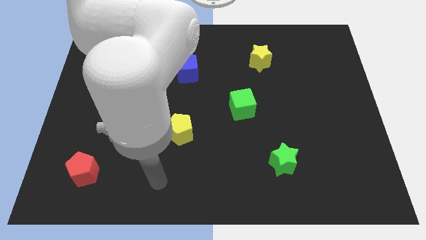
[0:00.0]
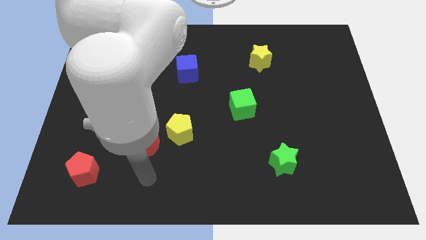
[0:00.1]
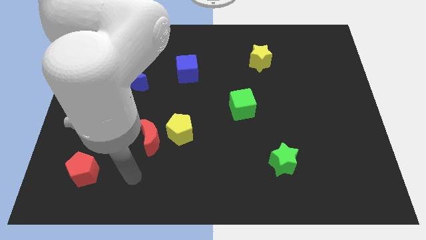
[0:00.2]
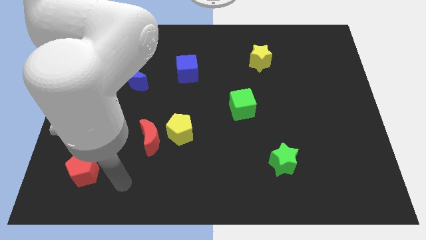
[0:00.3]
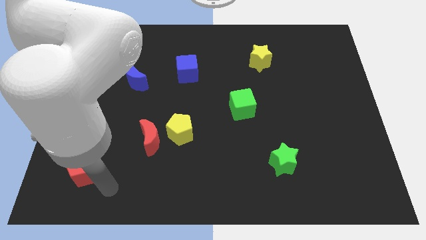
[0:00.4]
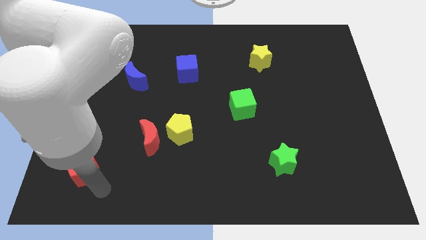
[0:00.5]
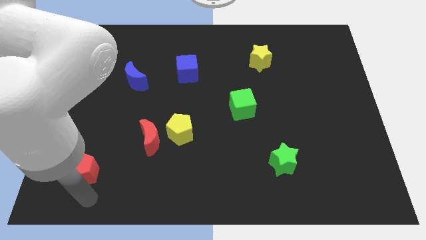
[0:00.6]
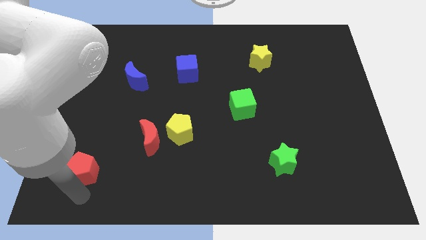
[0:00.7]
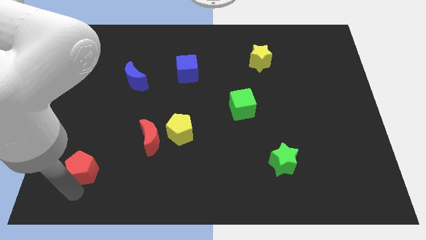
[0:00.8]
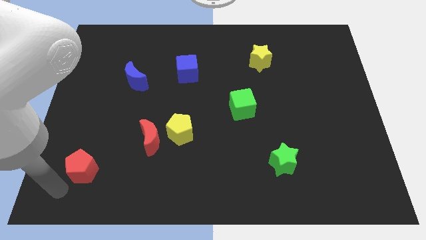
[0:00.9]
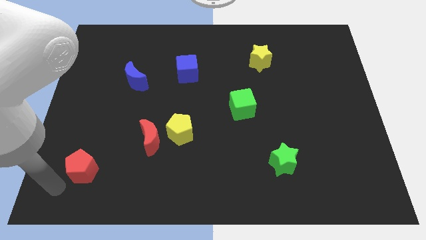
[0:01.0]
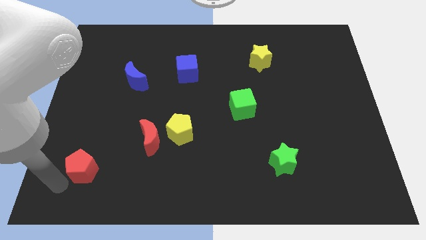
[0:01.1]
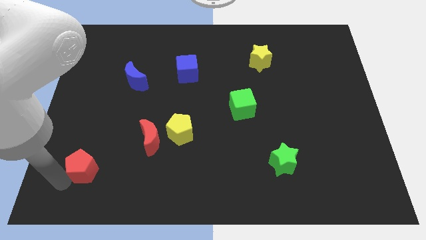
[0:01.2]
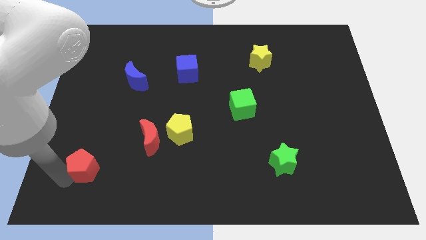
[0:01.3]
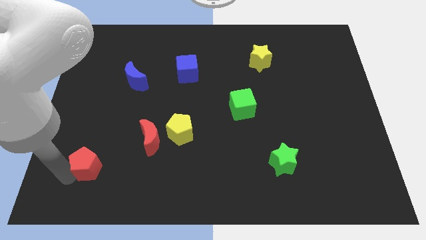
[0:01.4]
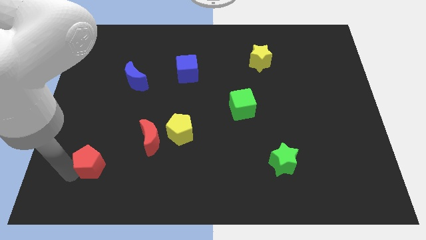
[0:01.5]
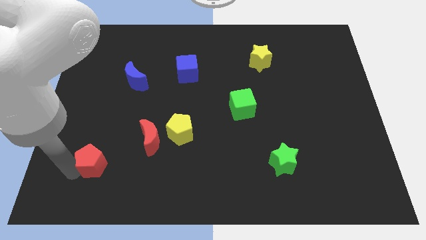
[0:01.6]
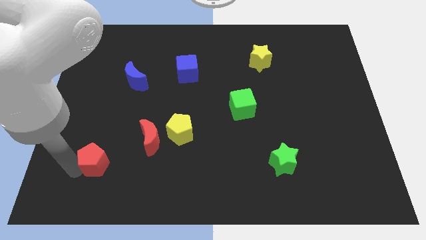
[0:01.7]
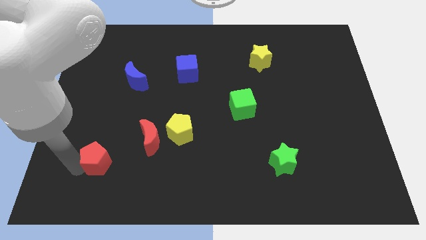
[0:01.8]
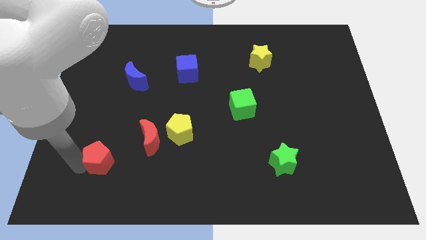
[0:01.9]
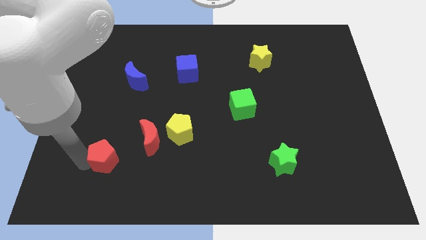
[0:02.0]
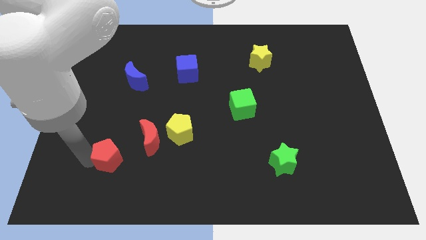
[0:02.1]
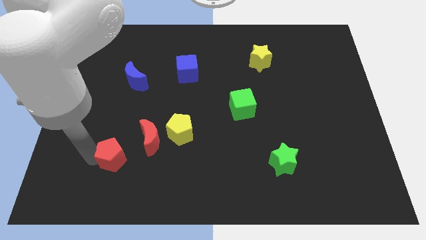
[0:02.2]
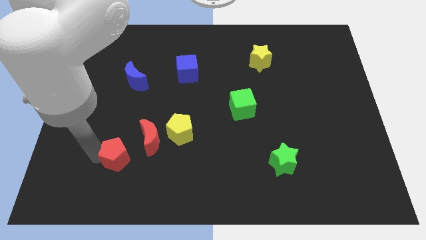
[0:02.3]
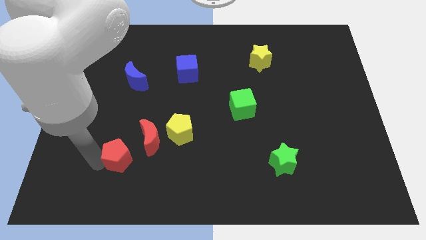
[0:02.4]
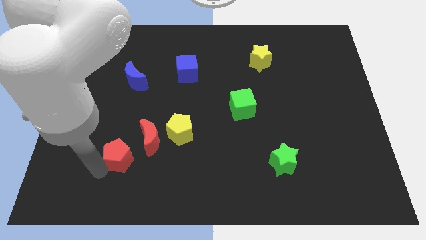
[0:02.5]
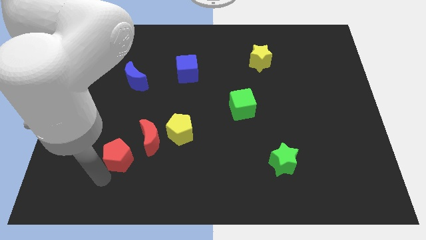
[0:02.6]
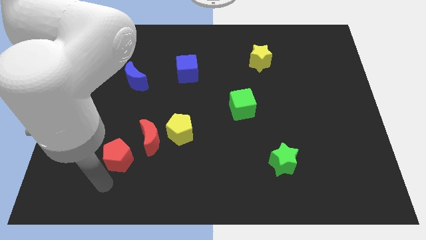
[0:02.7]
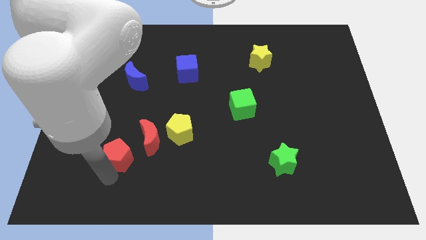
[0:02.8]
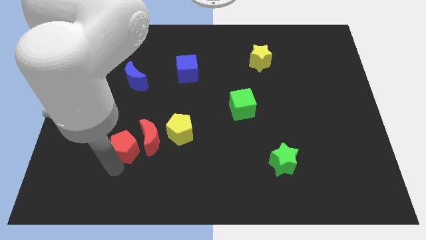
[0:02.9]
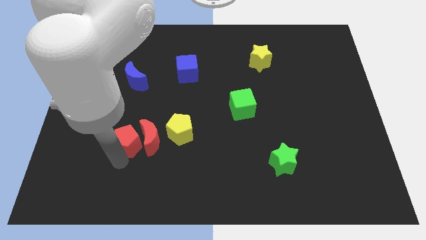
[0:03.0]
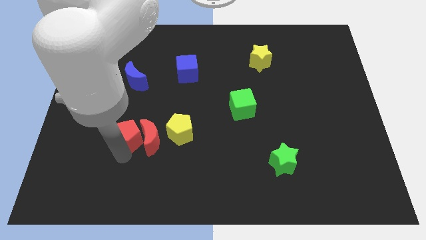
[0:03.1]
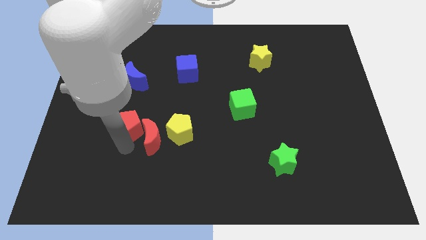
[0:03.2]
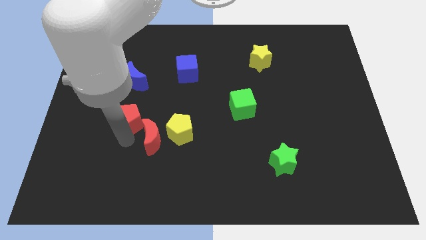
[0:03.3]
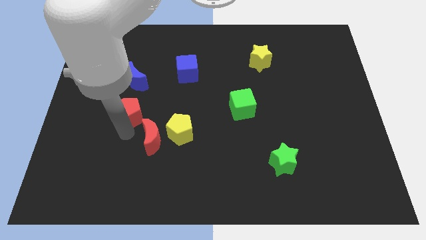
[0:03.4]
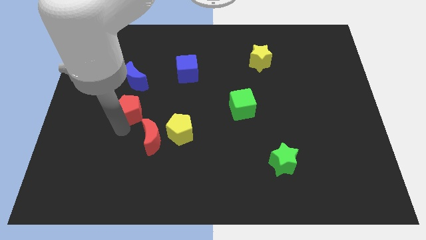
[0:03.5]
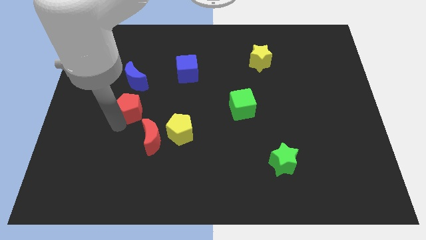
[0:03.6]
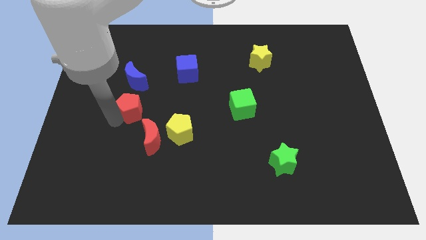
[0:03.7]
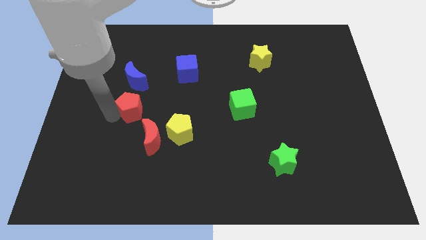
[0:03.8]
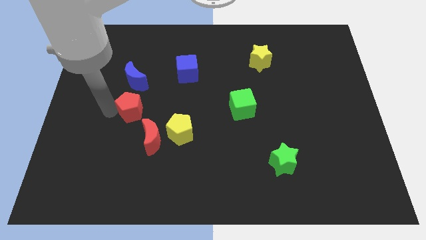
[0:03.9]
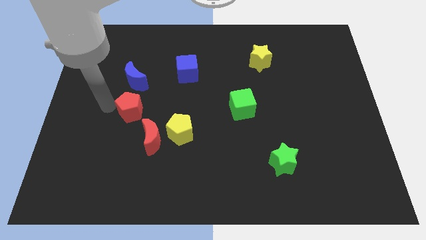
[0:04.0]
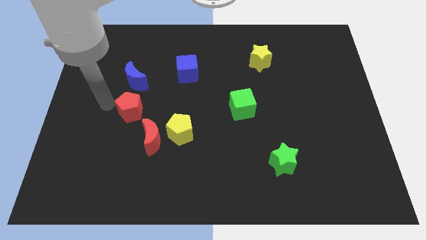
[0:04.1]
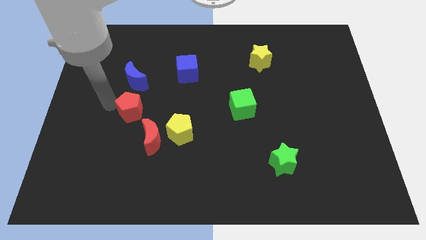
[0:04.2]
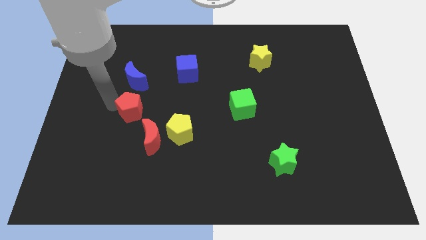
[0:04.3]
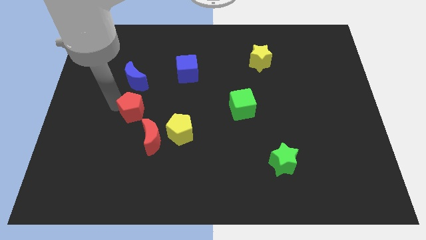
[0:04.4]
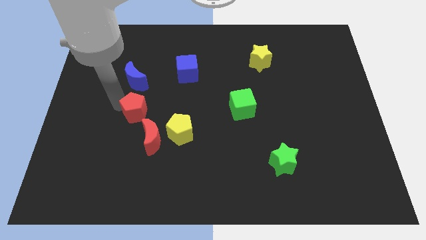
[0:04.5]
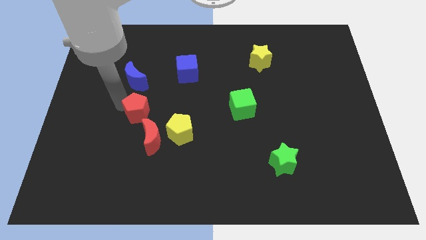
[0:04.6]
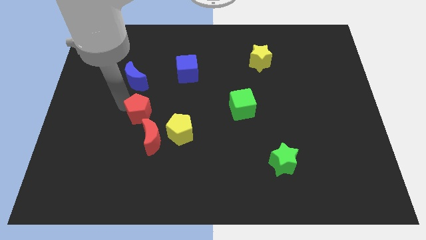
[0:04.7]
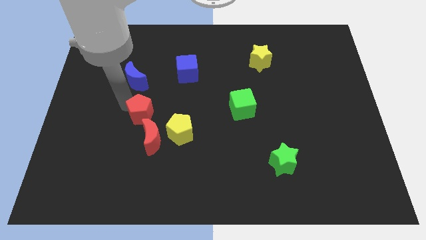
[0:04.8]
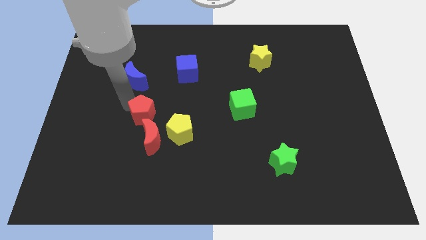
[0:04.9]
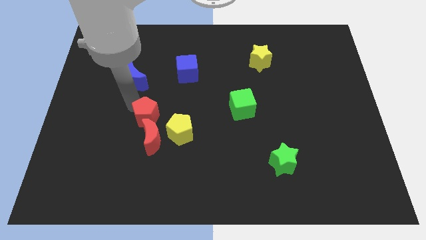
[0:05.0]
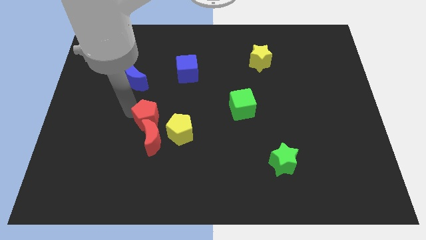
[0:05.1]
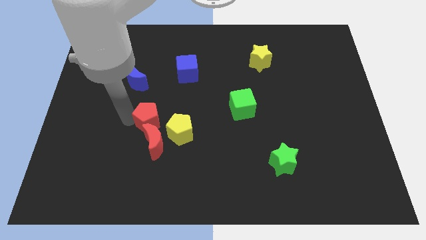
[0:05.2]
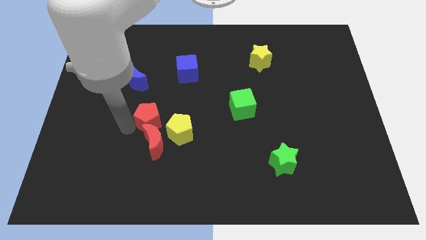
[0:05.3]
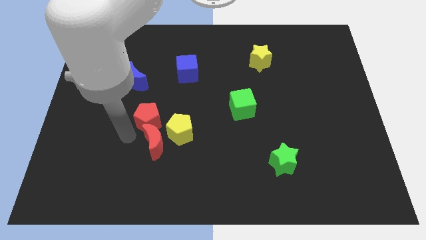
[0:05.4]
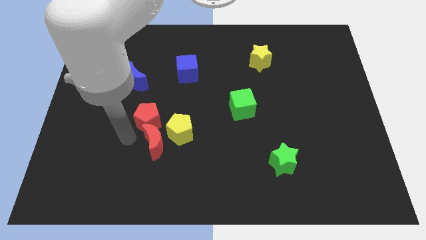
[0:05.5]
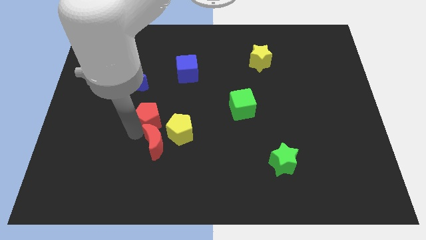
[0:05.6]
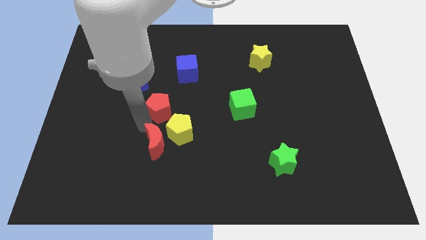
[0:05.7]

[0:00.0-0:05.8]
move the red pentagon to the top side of the yellow pentagon

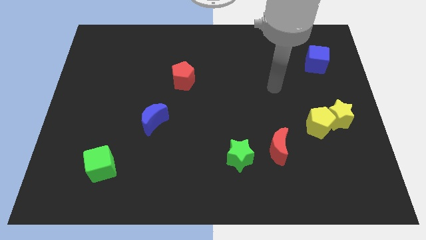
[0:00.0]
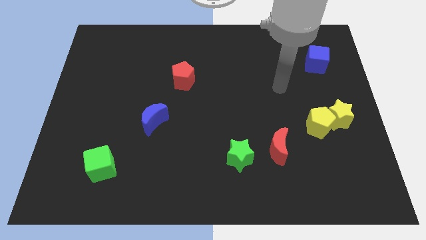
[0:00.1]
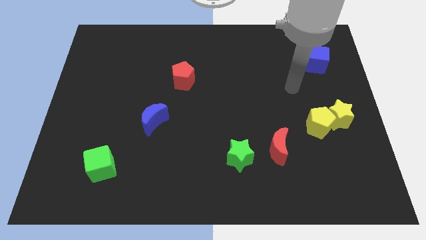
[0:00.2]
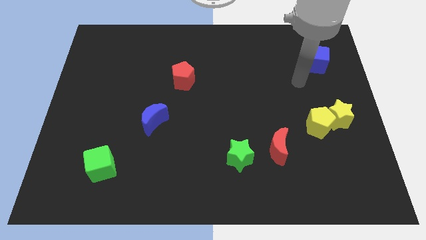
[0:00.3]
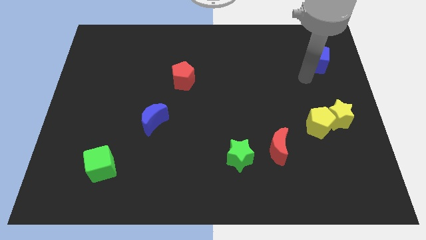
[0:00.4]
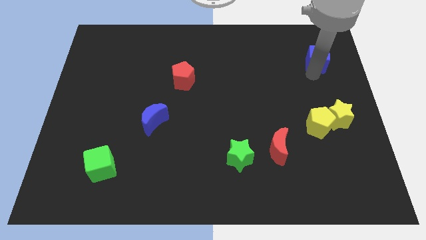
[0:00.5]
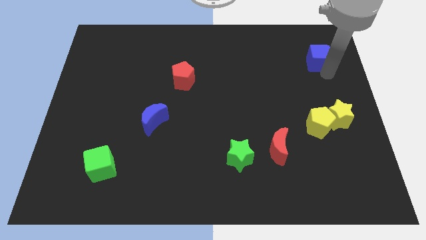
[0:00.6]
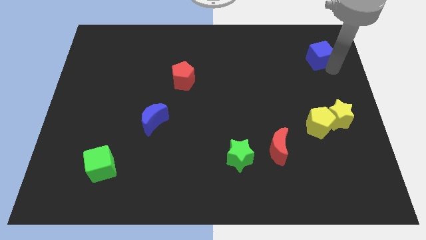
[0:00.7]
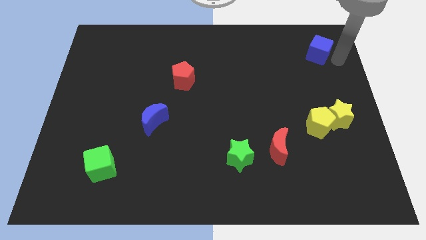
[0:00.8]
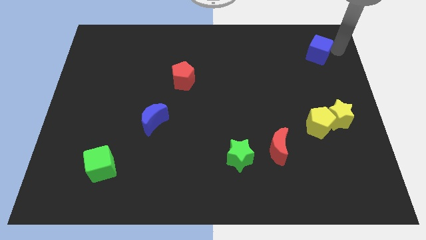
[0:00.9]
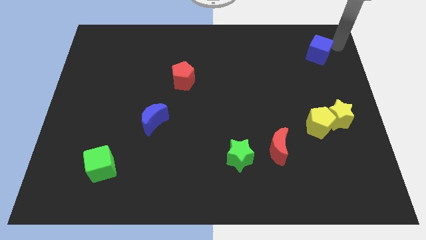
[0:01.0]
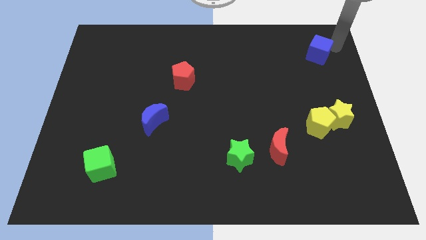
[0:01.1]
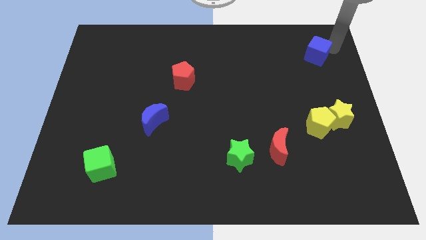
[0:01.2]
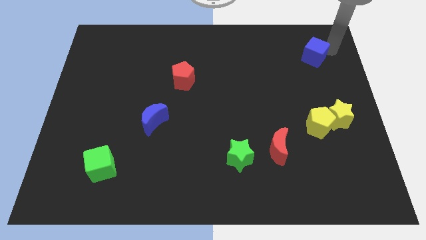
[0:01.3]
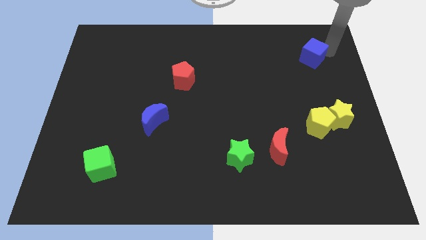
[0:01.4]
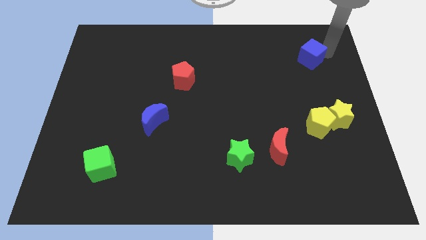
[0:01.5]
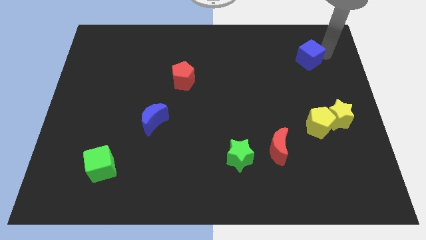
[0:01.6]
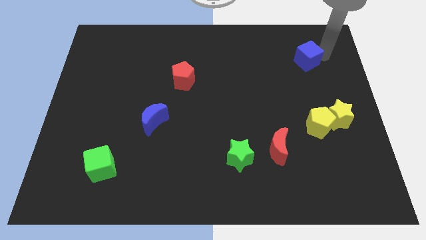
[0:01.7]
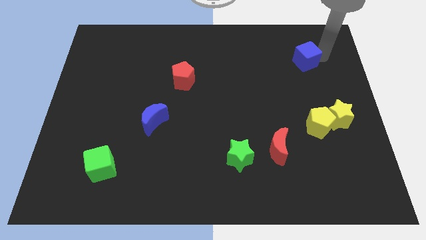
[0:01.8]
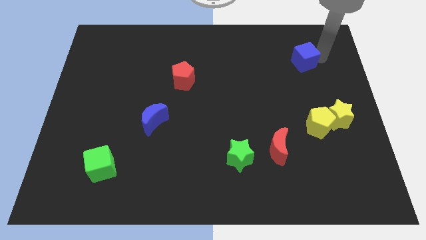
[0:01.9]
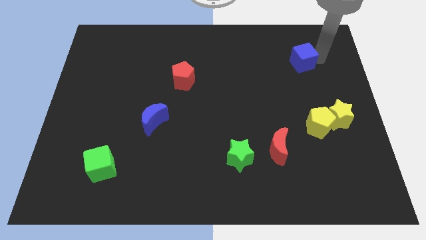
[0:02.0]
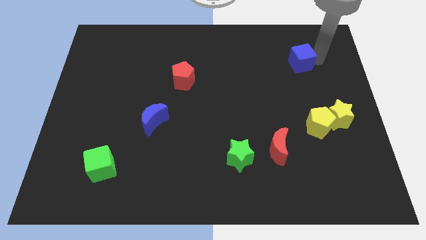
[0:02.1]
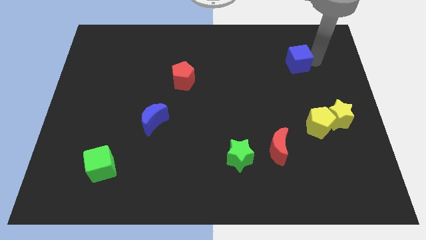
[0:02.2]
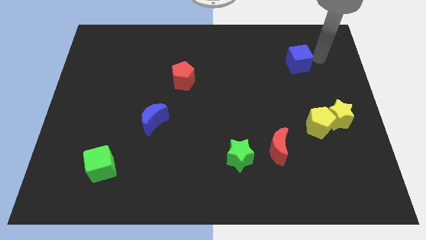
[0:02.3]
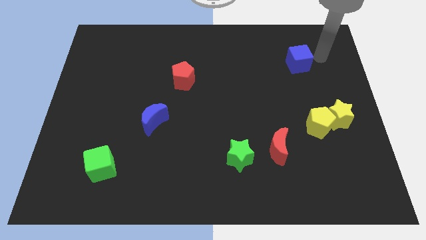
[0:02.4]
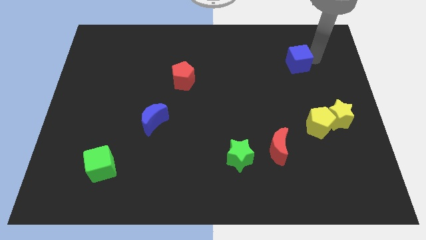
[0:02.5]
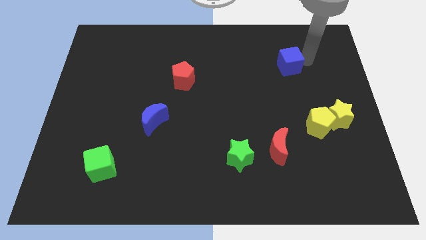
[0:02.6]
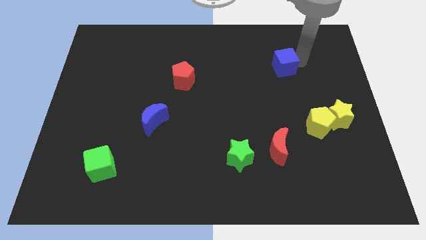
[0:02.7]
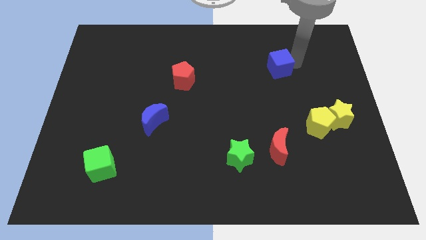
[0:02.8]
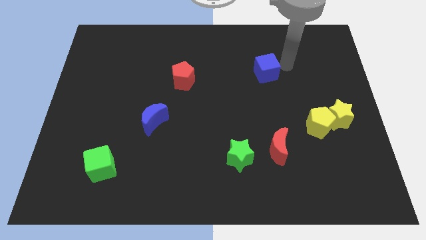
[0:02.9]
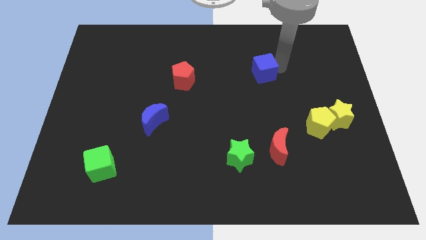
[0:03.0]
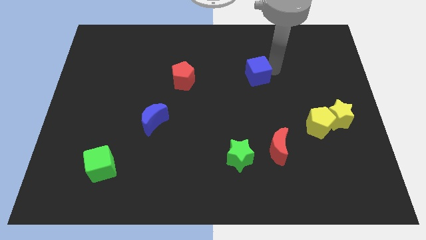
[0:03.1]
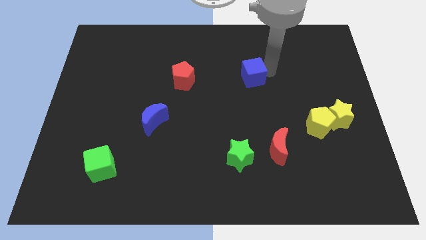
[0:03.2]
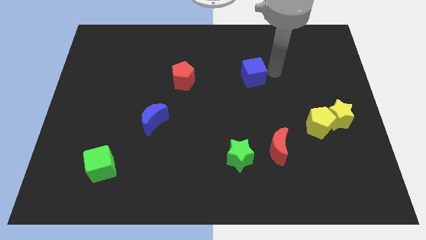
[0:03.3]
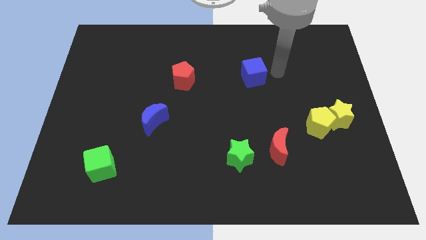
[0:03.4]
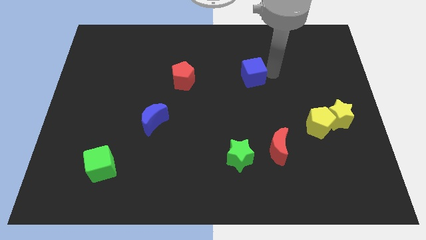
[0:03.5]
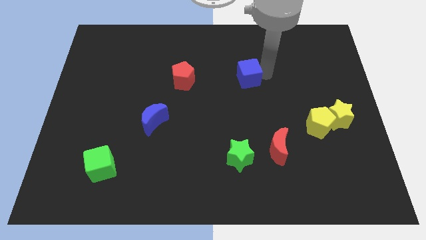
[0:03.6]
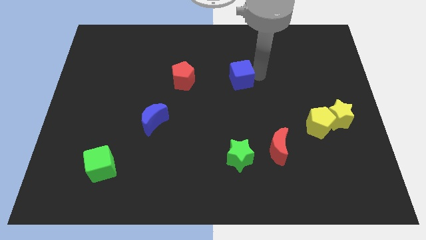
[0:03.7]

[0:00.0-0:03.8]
put the blue cube to the right side of the red pentagon
